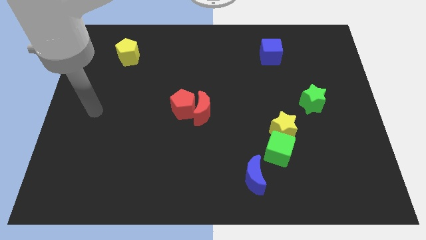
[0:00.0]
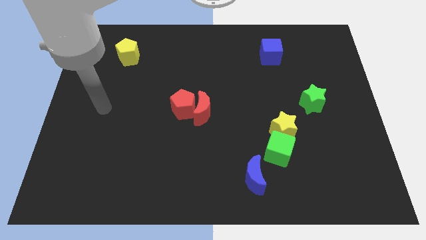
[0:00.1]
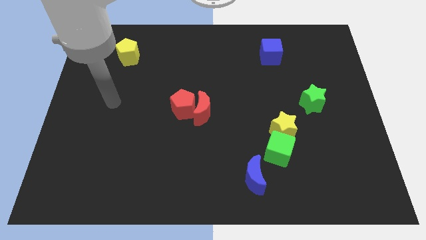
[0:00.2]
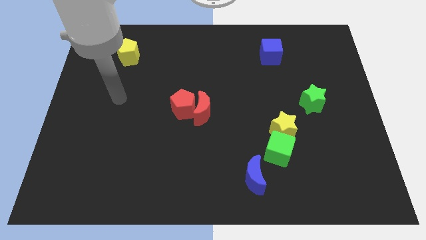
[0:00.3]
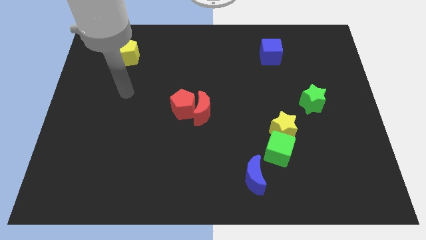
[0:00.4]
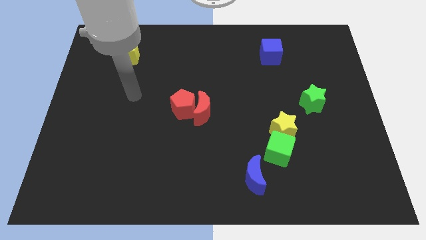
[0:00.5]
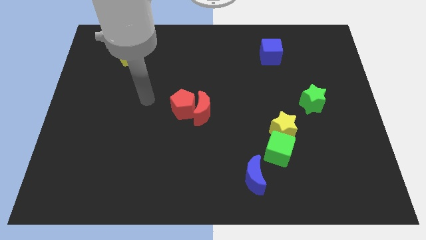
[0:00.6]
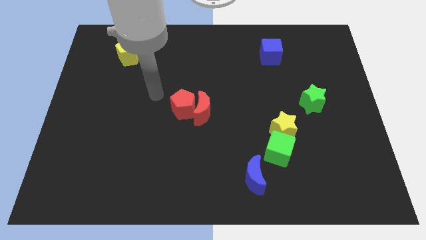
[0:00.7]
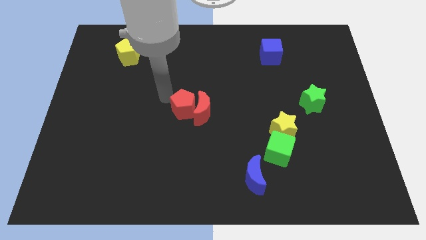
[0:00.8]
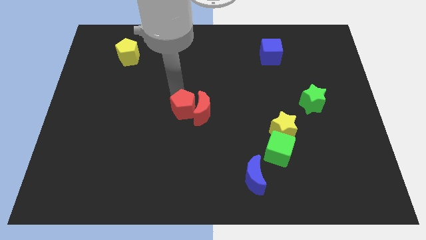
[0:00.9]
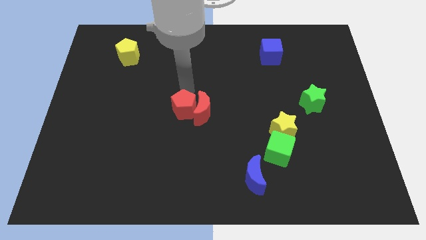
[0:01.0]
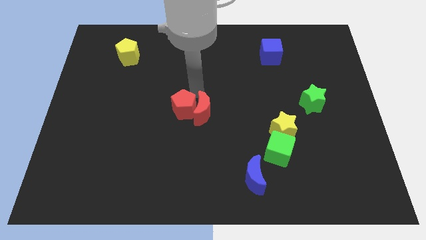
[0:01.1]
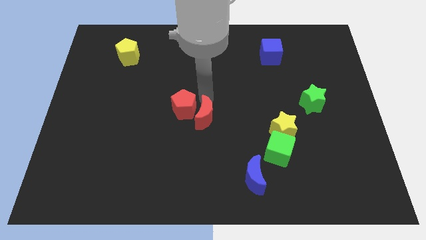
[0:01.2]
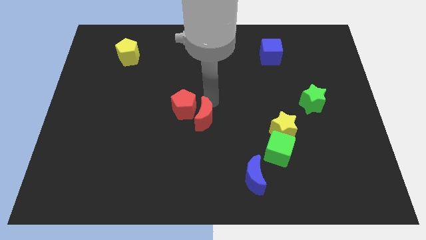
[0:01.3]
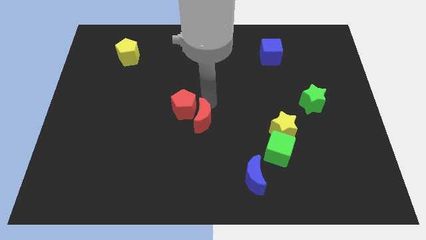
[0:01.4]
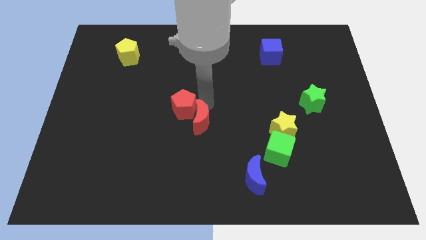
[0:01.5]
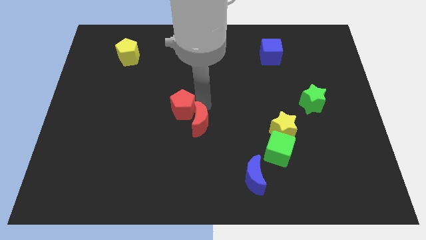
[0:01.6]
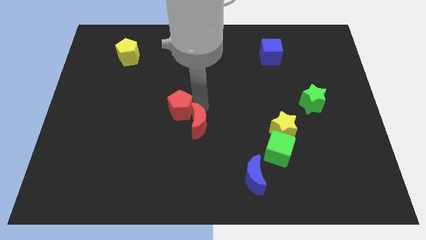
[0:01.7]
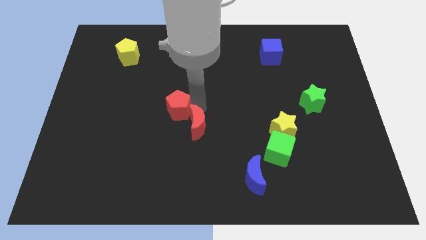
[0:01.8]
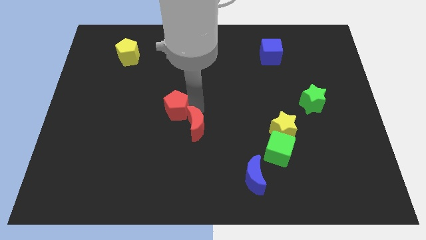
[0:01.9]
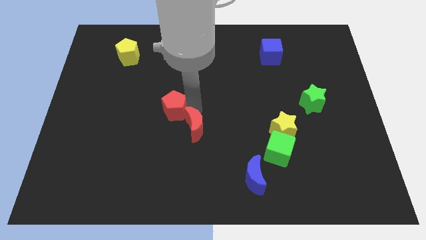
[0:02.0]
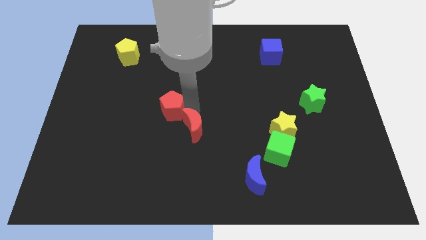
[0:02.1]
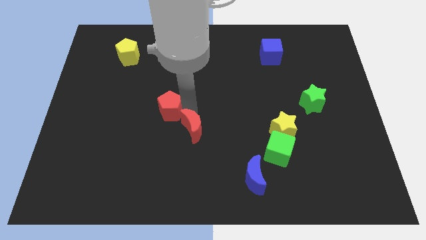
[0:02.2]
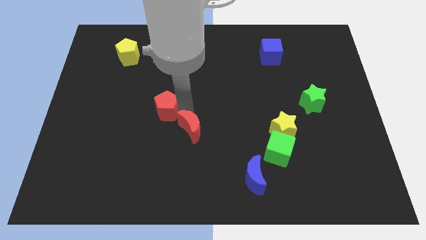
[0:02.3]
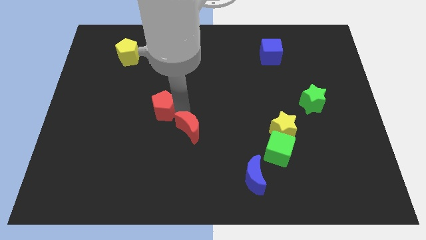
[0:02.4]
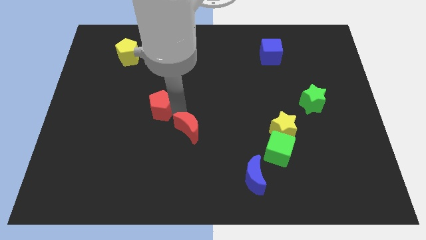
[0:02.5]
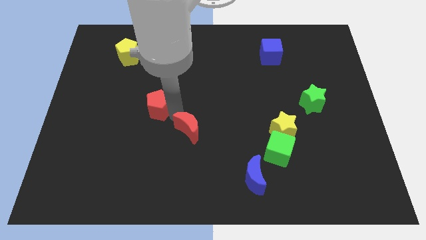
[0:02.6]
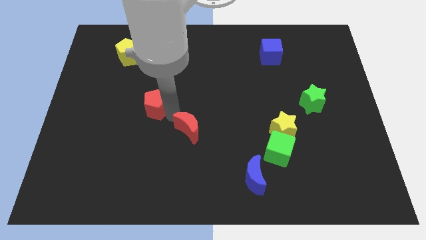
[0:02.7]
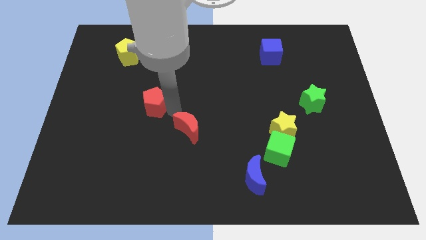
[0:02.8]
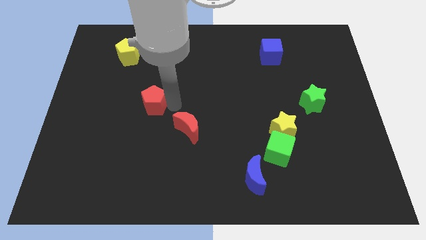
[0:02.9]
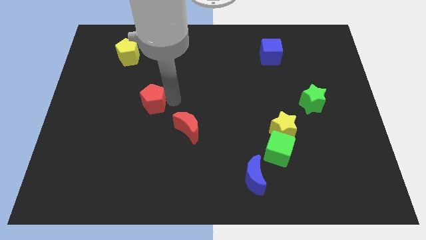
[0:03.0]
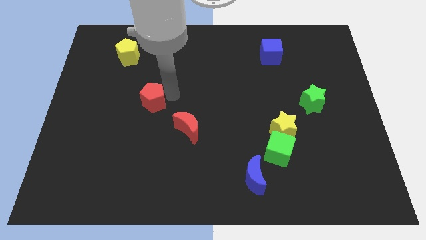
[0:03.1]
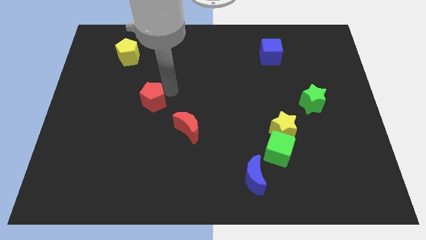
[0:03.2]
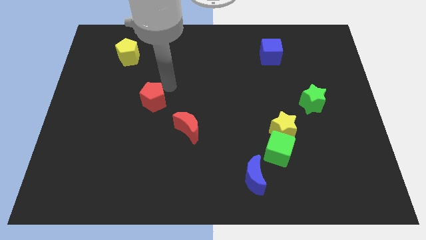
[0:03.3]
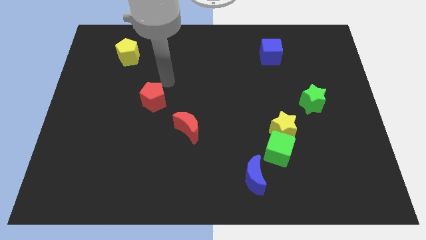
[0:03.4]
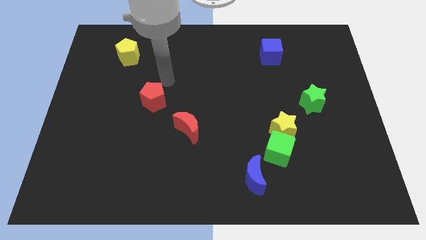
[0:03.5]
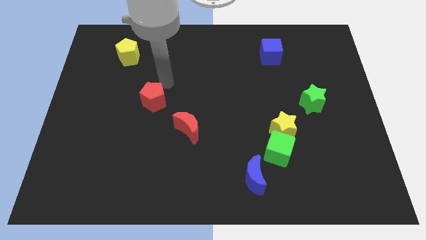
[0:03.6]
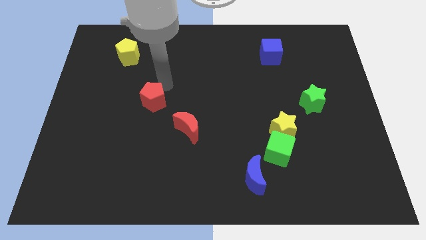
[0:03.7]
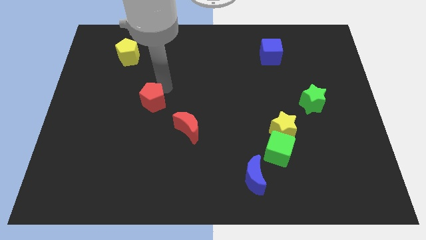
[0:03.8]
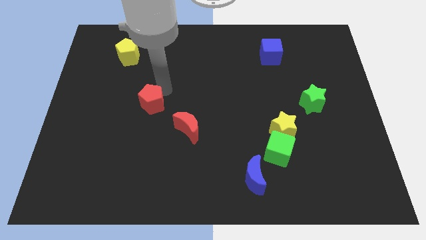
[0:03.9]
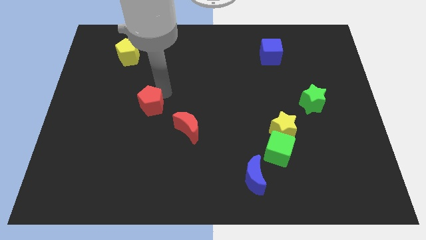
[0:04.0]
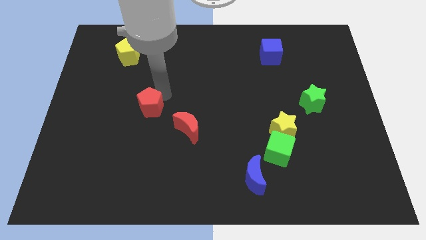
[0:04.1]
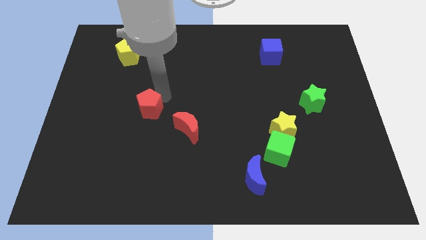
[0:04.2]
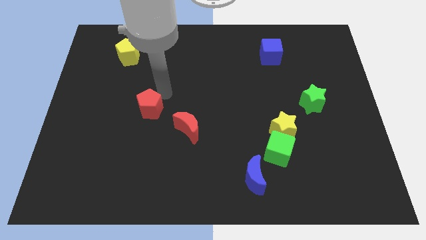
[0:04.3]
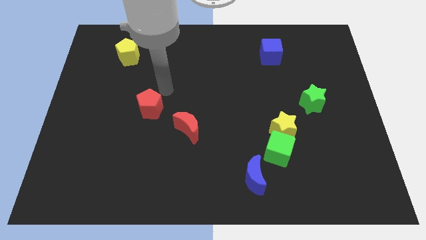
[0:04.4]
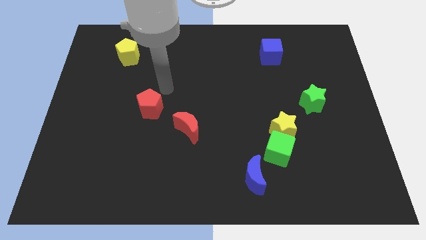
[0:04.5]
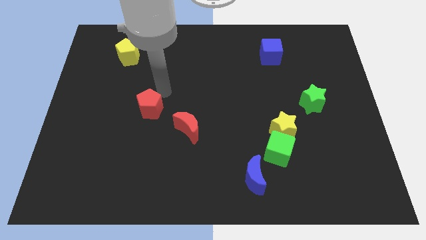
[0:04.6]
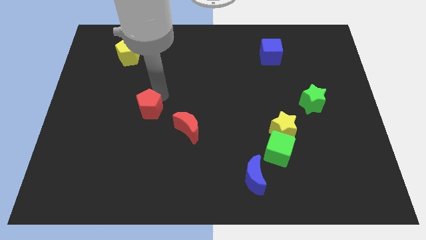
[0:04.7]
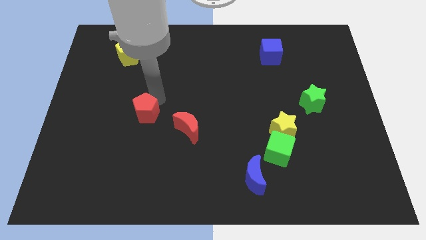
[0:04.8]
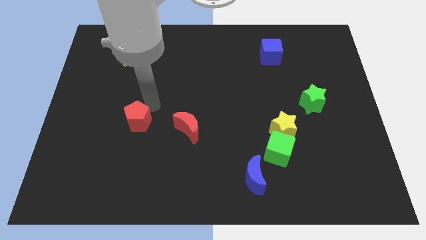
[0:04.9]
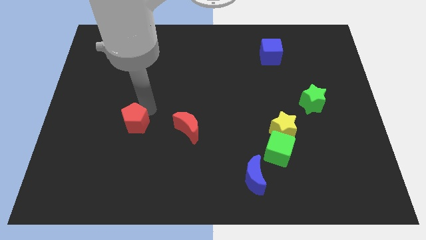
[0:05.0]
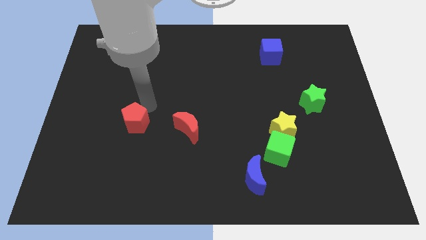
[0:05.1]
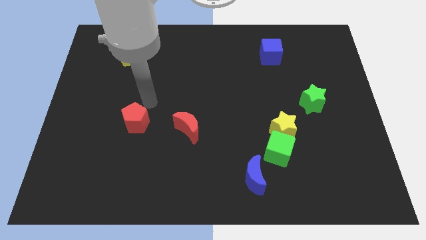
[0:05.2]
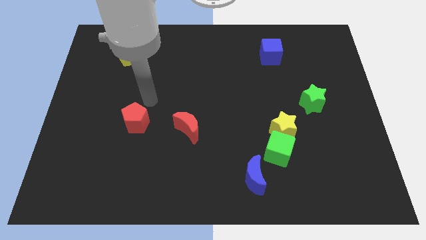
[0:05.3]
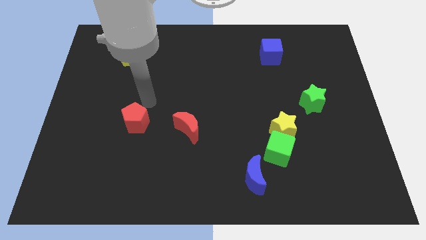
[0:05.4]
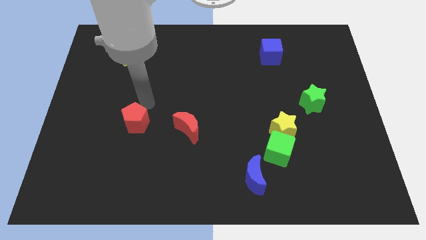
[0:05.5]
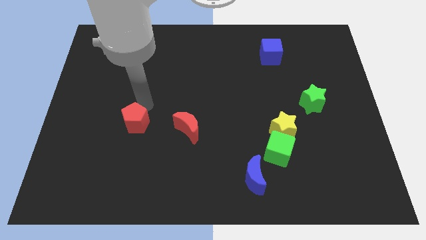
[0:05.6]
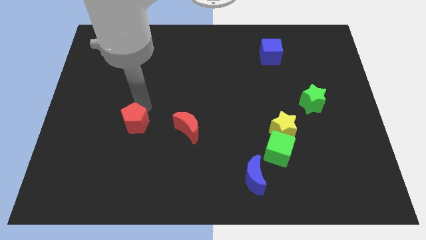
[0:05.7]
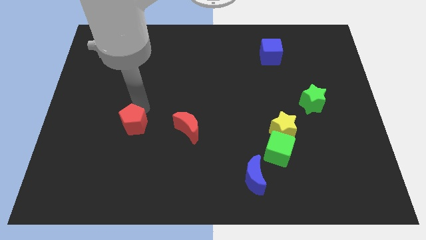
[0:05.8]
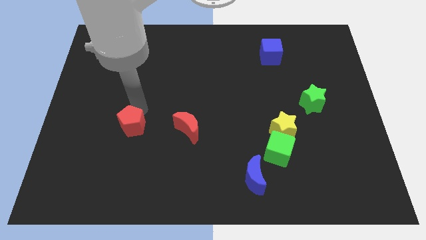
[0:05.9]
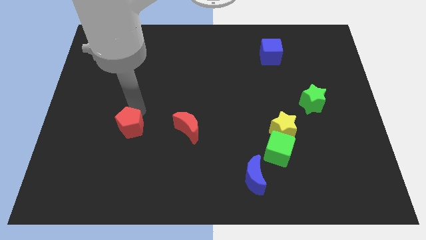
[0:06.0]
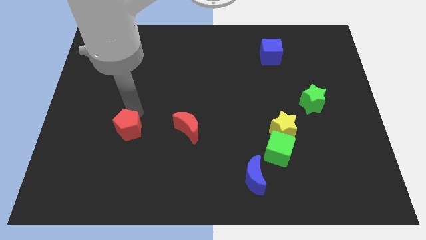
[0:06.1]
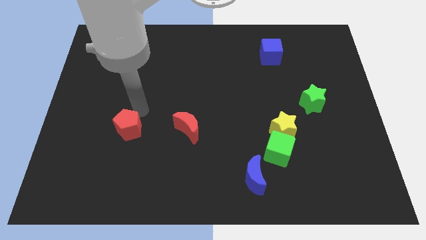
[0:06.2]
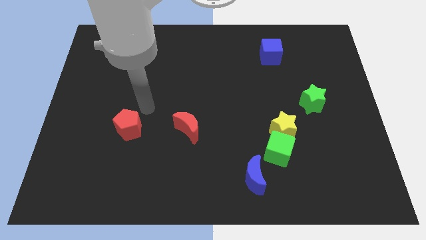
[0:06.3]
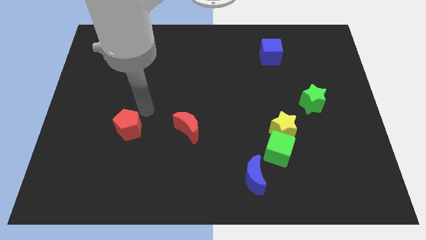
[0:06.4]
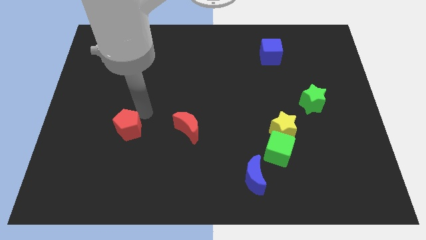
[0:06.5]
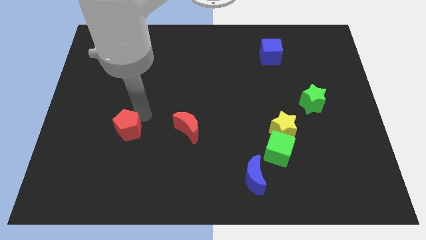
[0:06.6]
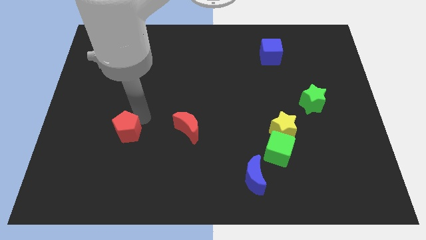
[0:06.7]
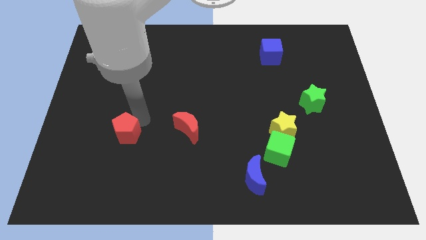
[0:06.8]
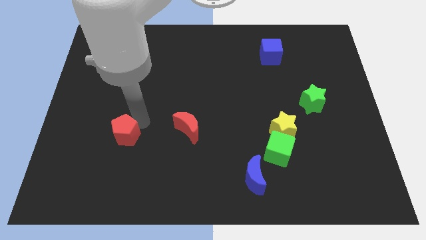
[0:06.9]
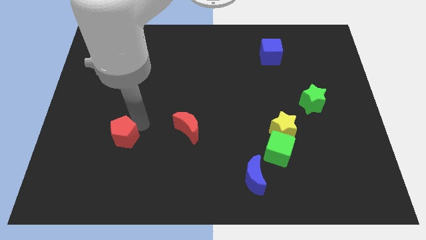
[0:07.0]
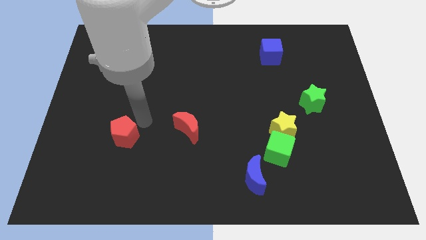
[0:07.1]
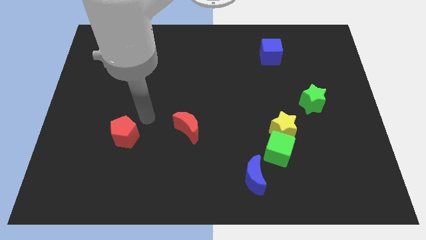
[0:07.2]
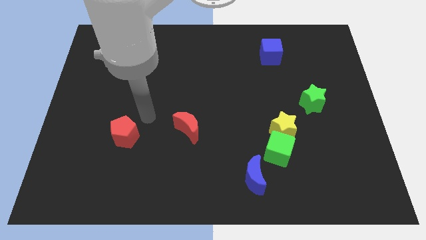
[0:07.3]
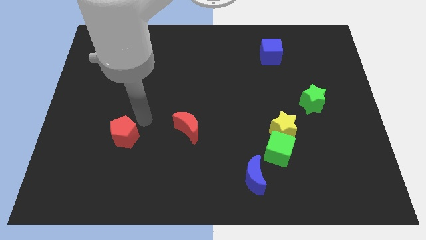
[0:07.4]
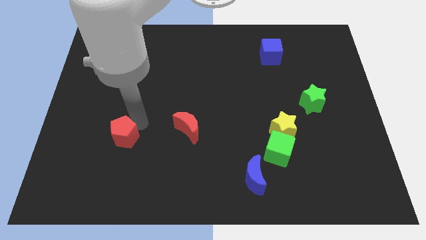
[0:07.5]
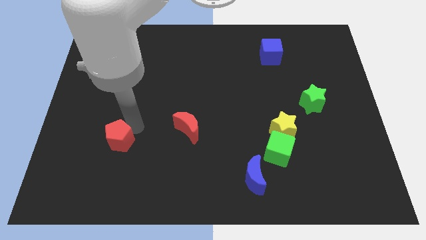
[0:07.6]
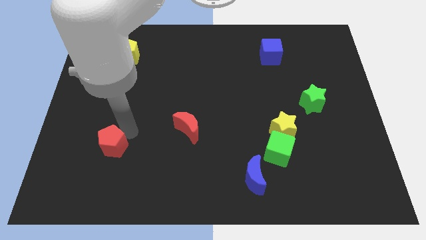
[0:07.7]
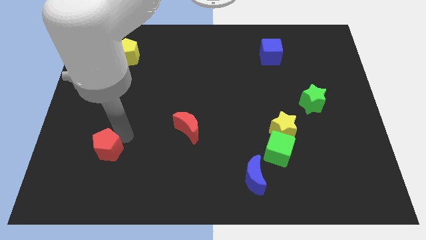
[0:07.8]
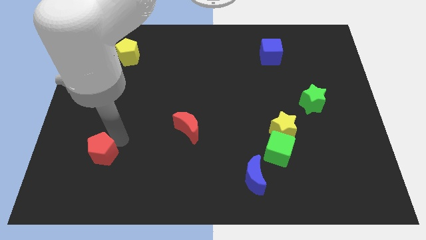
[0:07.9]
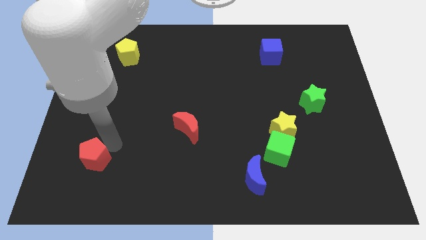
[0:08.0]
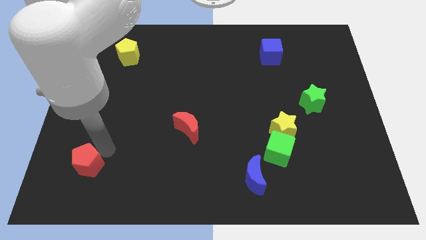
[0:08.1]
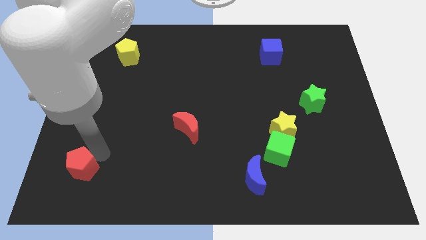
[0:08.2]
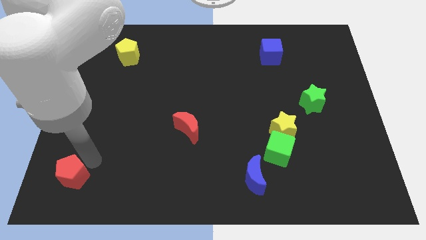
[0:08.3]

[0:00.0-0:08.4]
put the red pentagon to the bottom left of the board
